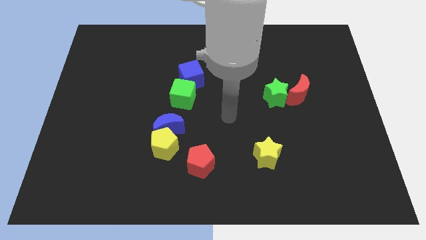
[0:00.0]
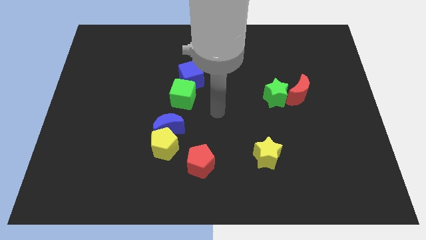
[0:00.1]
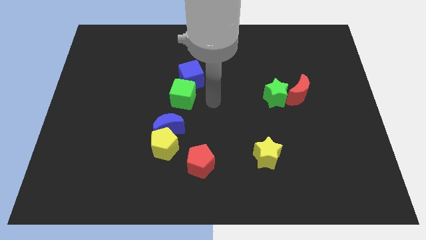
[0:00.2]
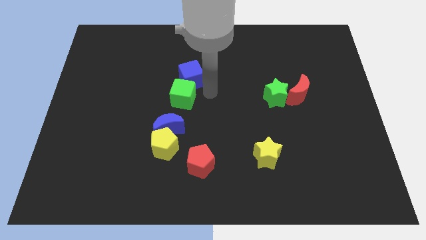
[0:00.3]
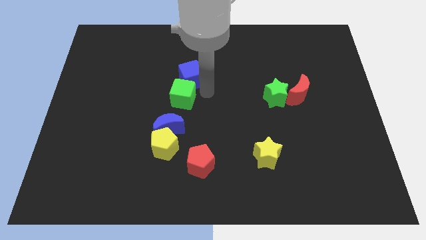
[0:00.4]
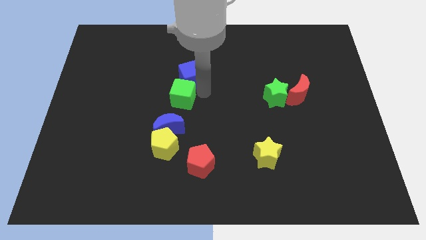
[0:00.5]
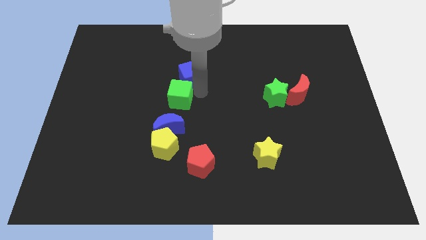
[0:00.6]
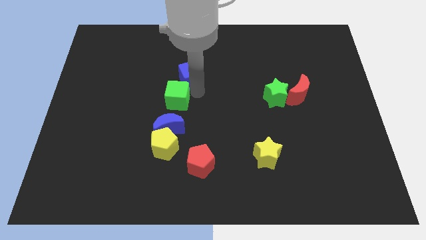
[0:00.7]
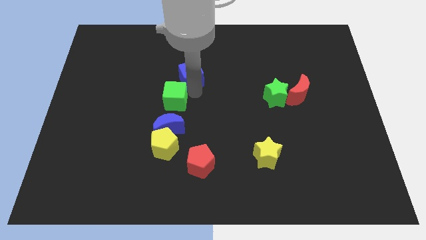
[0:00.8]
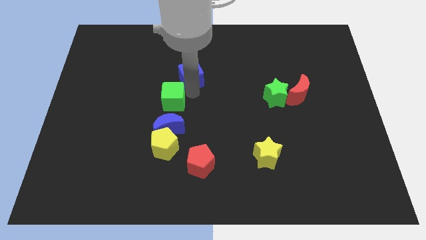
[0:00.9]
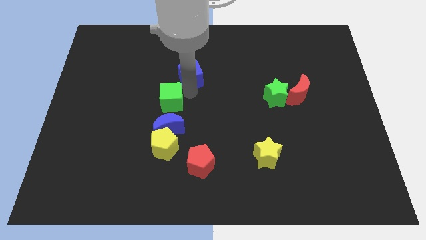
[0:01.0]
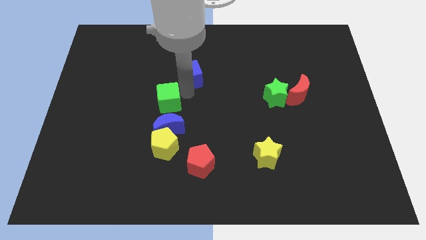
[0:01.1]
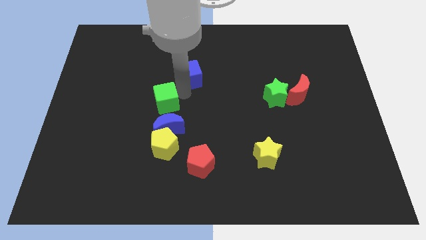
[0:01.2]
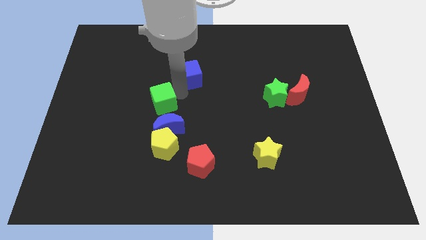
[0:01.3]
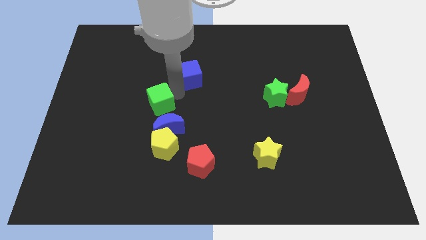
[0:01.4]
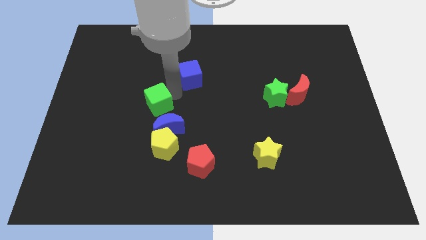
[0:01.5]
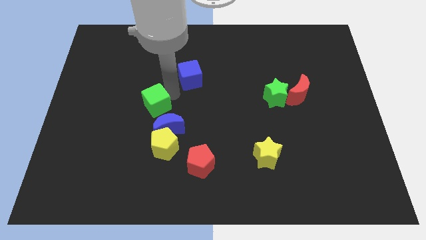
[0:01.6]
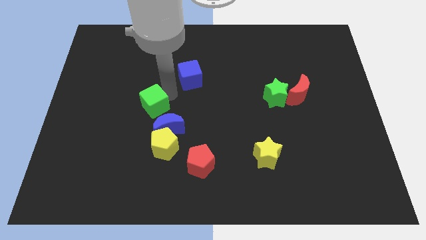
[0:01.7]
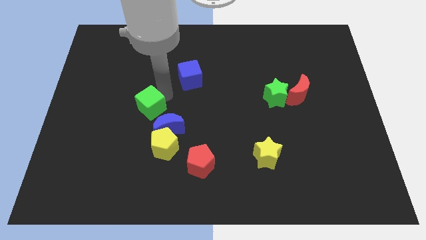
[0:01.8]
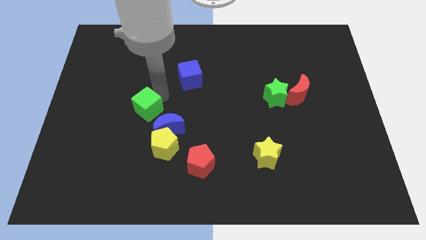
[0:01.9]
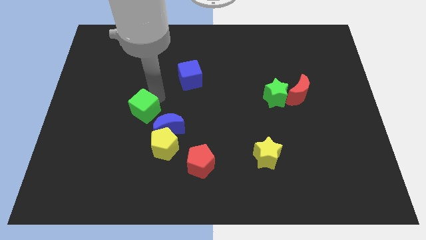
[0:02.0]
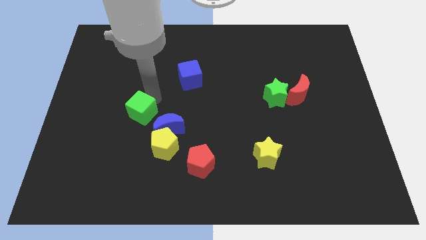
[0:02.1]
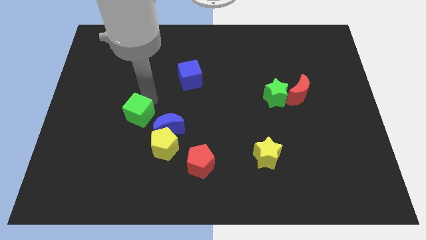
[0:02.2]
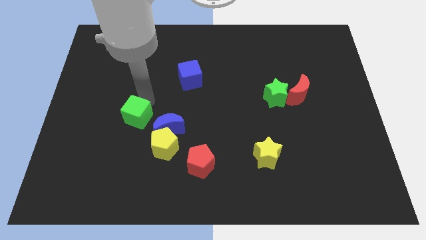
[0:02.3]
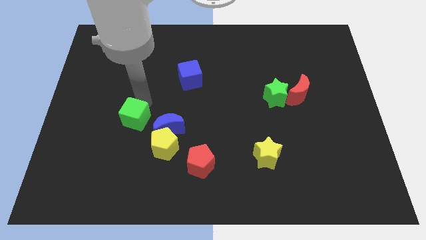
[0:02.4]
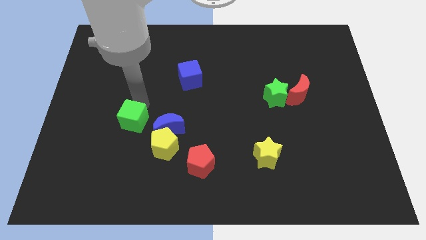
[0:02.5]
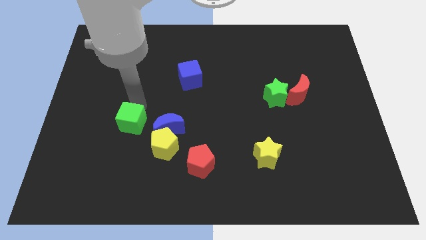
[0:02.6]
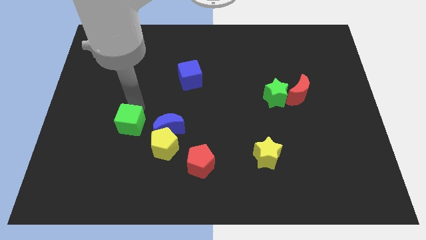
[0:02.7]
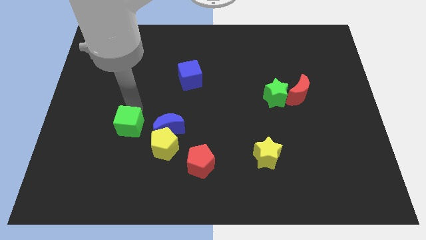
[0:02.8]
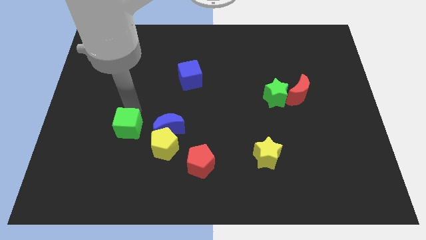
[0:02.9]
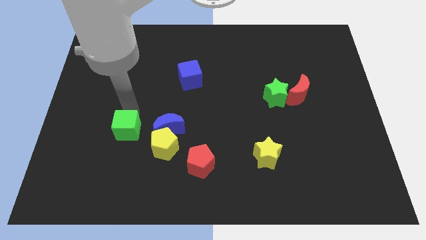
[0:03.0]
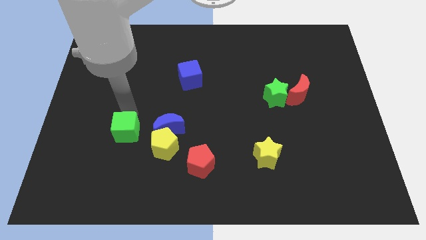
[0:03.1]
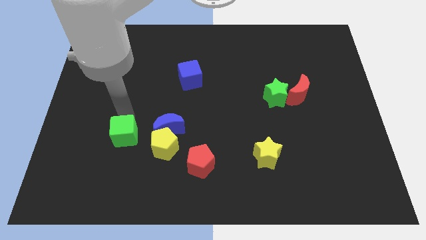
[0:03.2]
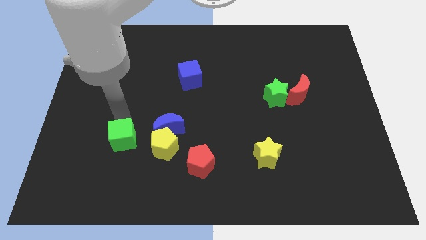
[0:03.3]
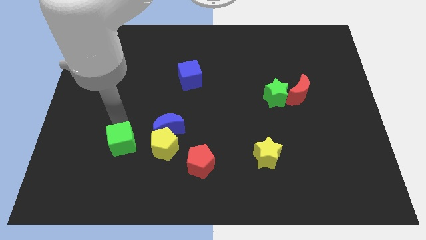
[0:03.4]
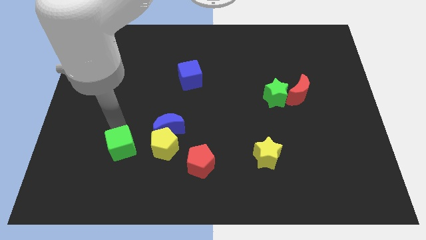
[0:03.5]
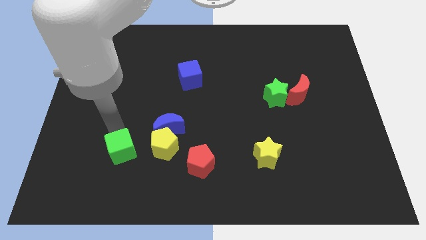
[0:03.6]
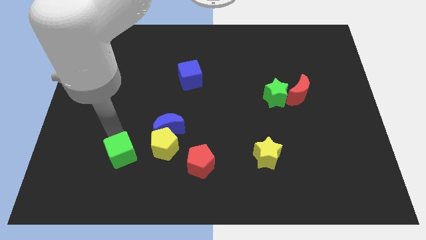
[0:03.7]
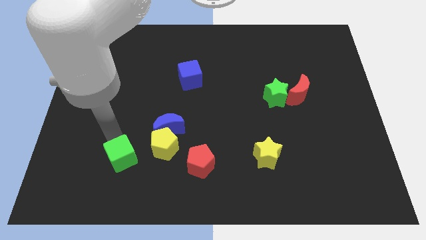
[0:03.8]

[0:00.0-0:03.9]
move the green cube down a little bit

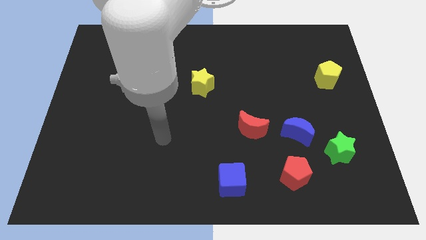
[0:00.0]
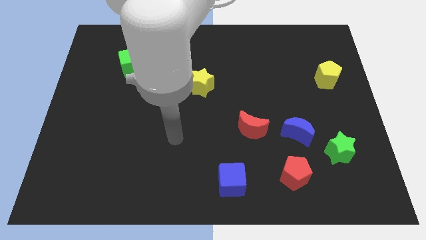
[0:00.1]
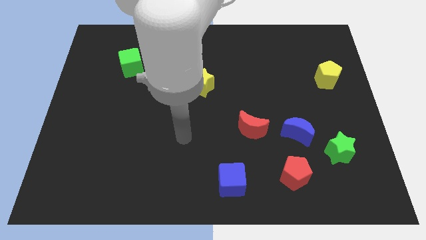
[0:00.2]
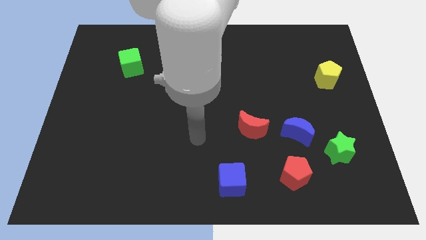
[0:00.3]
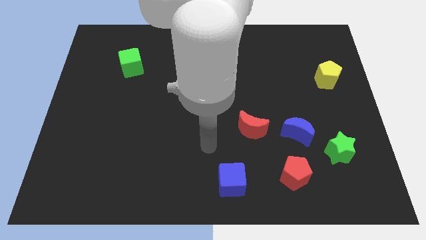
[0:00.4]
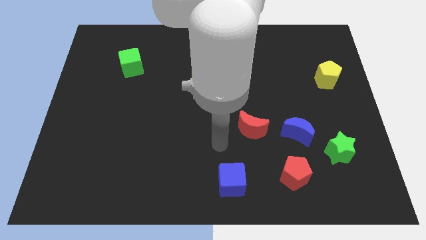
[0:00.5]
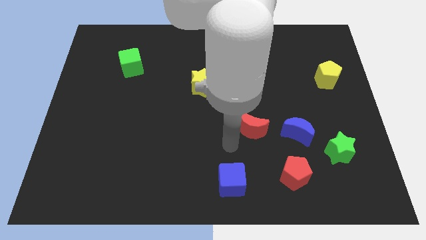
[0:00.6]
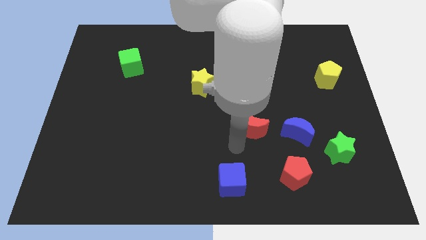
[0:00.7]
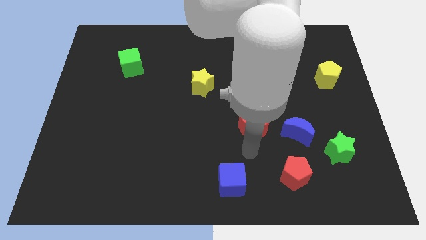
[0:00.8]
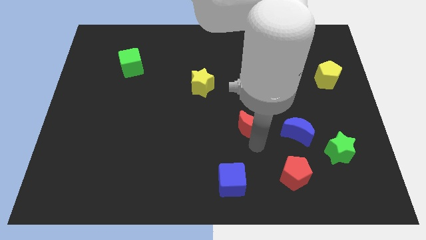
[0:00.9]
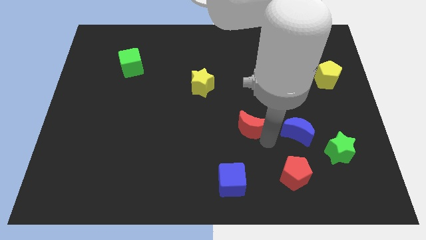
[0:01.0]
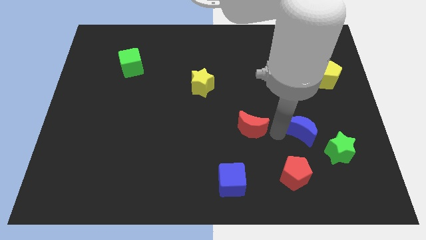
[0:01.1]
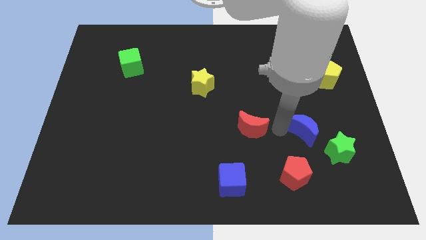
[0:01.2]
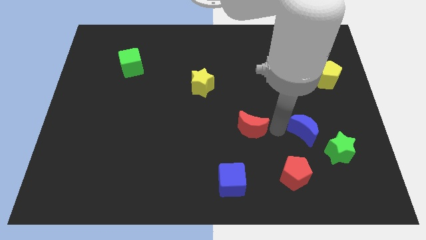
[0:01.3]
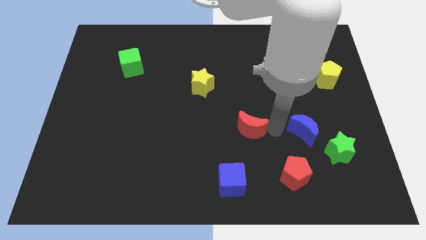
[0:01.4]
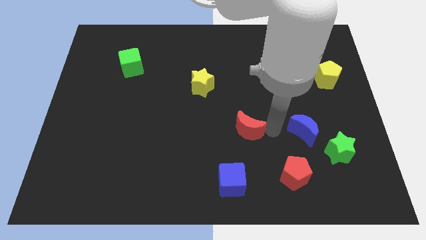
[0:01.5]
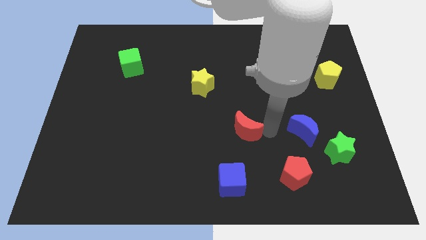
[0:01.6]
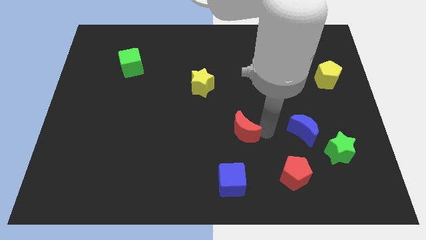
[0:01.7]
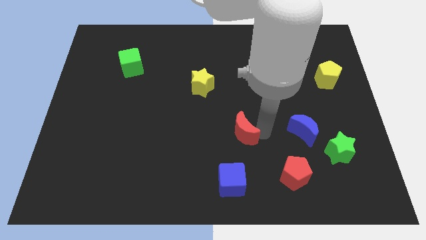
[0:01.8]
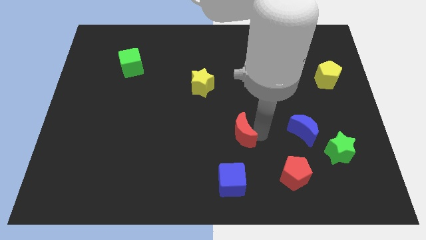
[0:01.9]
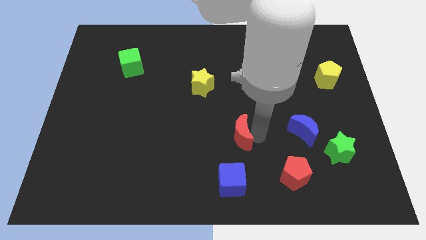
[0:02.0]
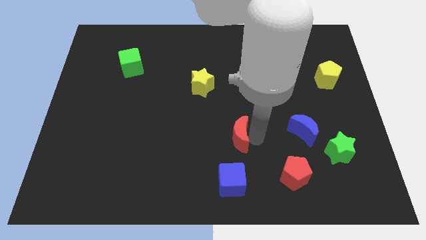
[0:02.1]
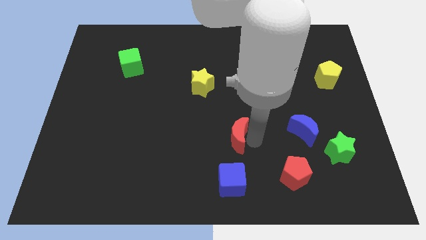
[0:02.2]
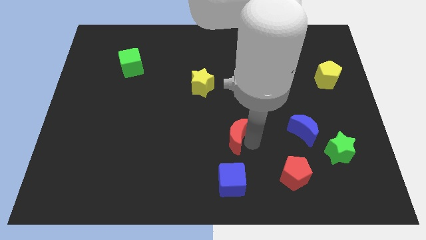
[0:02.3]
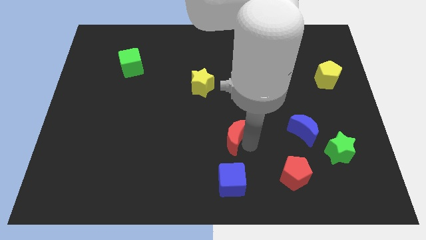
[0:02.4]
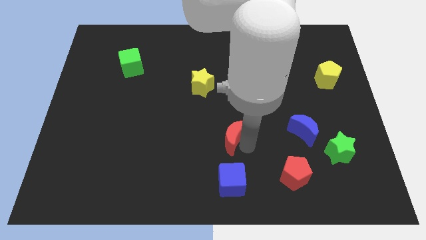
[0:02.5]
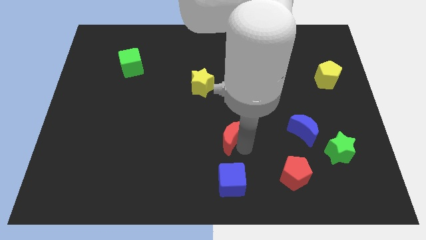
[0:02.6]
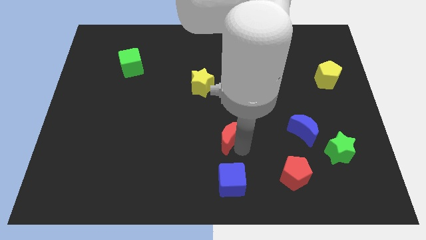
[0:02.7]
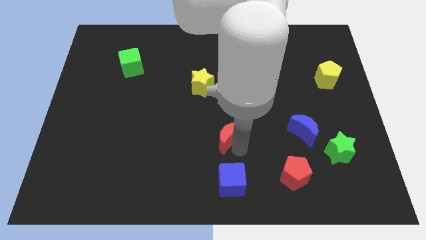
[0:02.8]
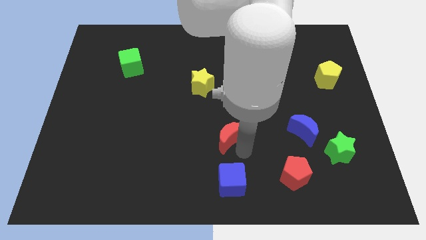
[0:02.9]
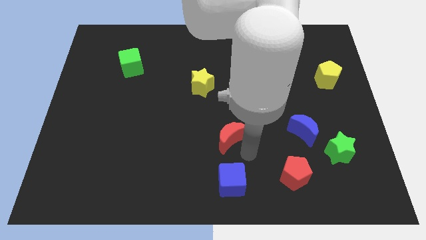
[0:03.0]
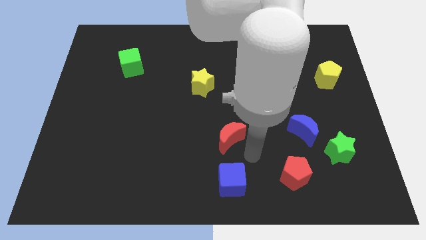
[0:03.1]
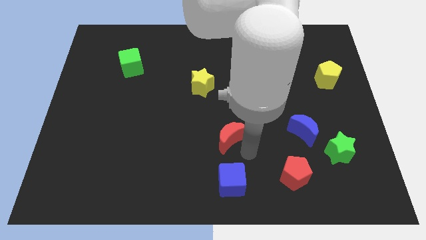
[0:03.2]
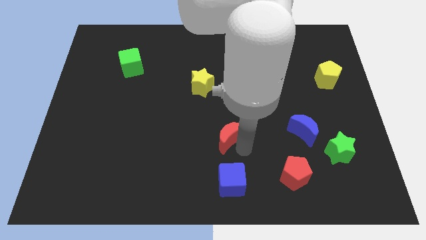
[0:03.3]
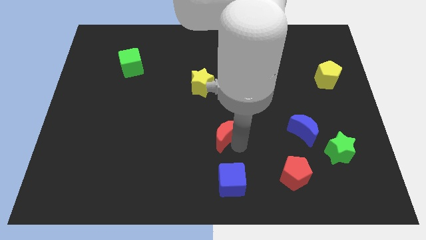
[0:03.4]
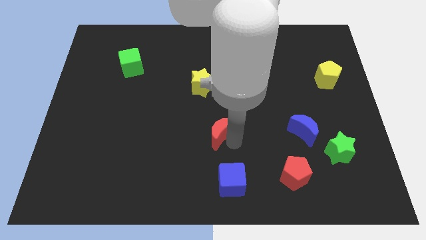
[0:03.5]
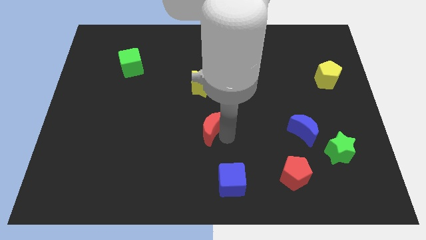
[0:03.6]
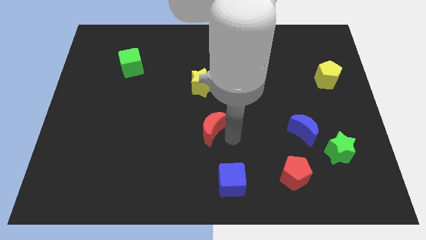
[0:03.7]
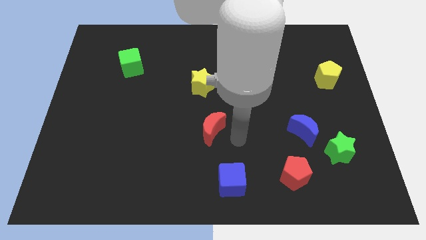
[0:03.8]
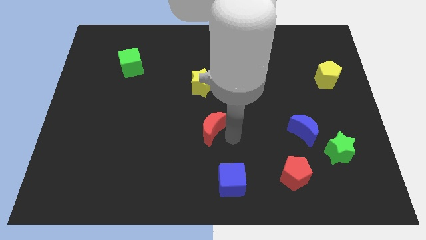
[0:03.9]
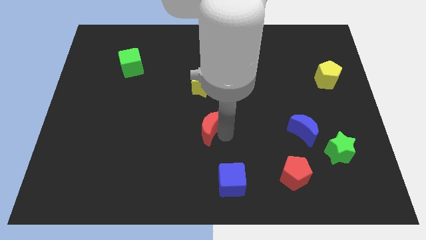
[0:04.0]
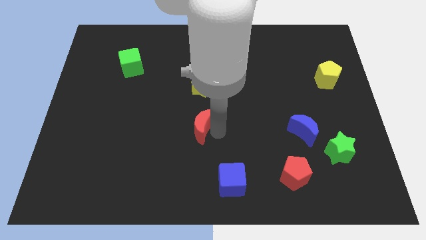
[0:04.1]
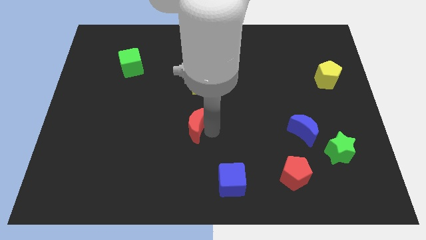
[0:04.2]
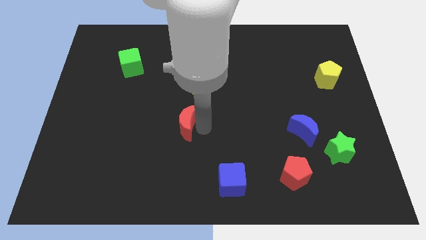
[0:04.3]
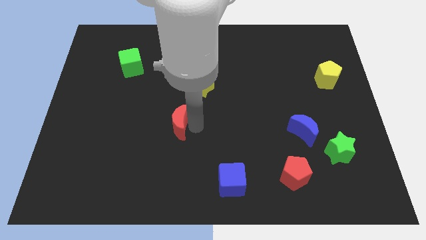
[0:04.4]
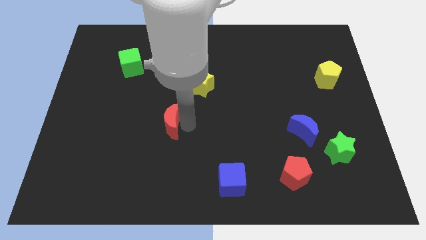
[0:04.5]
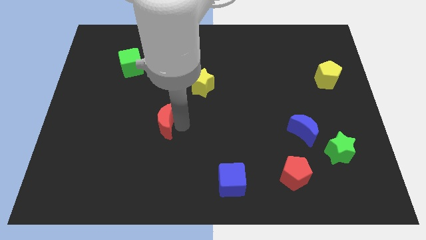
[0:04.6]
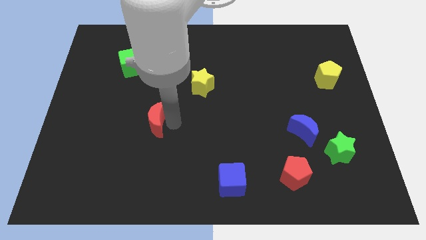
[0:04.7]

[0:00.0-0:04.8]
slide the red moon left
